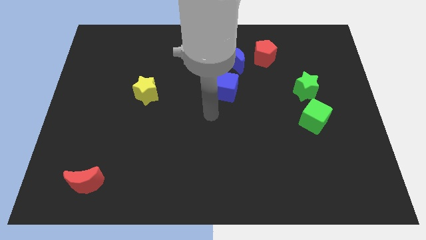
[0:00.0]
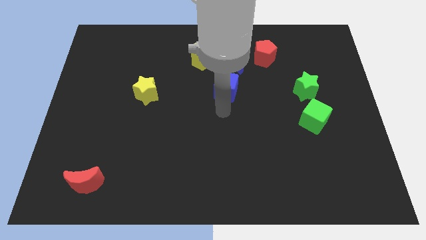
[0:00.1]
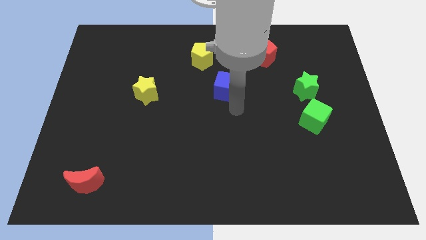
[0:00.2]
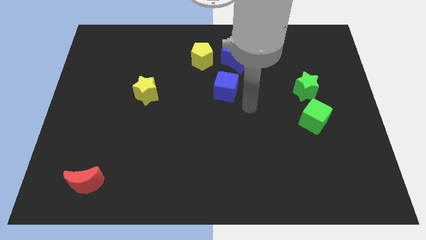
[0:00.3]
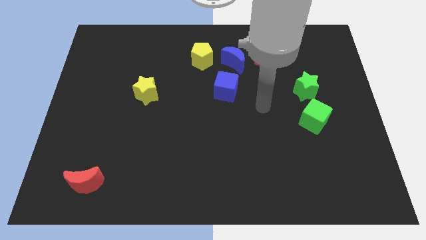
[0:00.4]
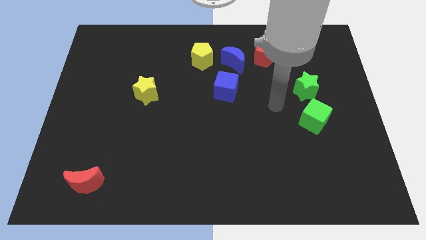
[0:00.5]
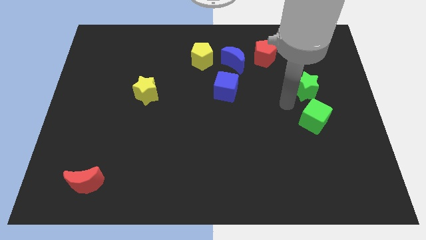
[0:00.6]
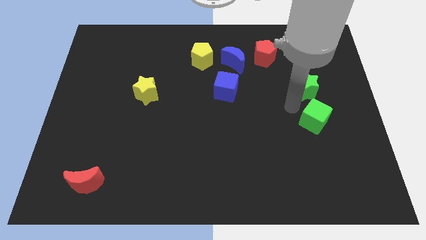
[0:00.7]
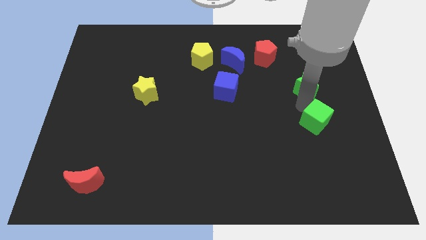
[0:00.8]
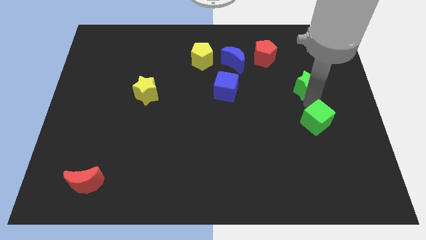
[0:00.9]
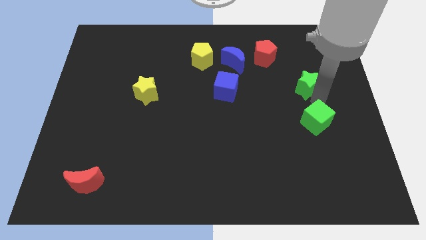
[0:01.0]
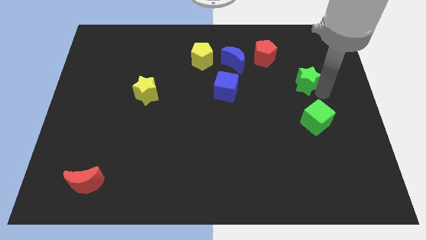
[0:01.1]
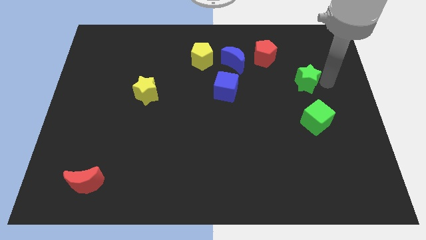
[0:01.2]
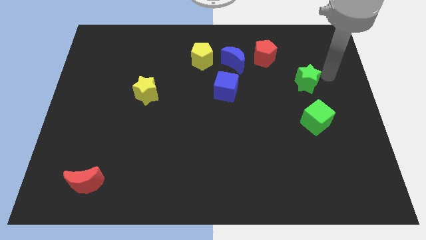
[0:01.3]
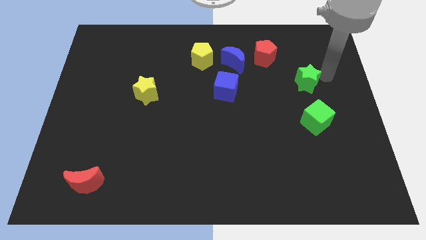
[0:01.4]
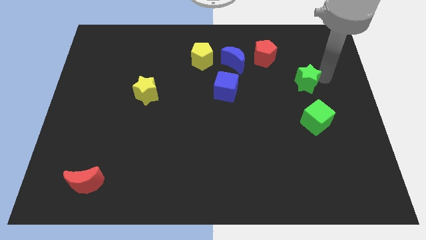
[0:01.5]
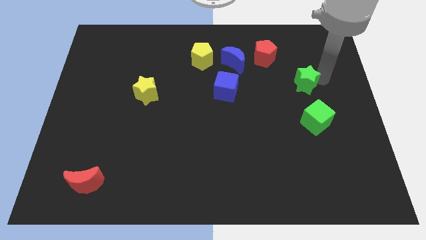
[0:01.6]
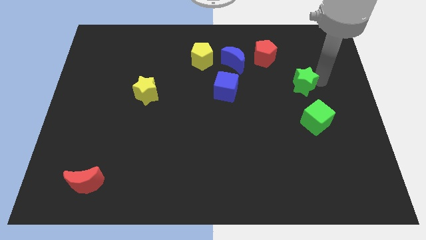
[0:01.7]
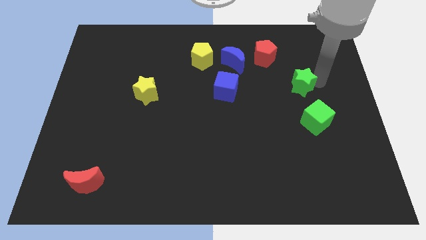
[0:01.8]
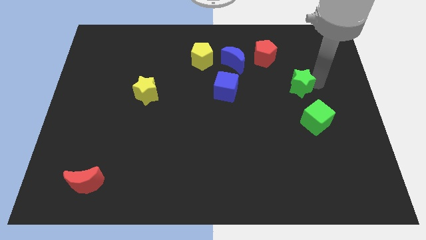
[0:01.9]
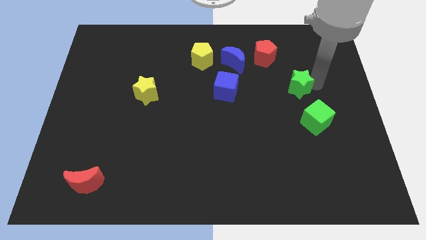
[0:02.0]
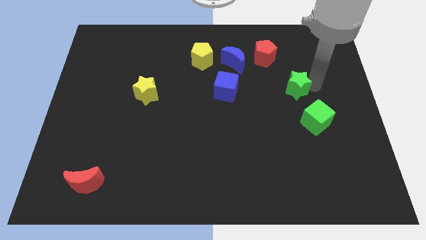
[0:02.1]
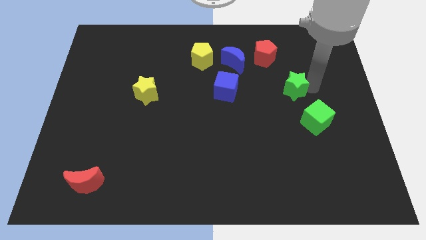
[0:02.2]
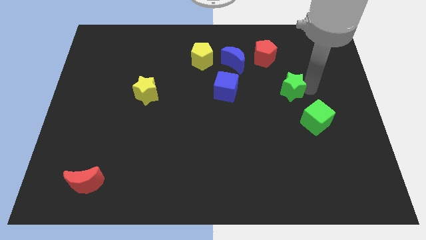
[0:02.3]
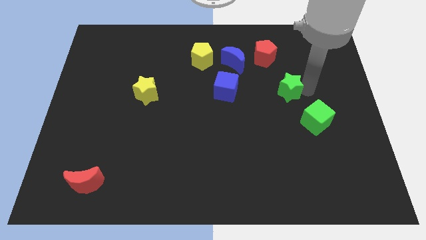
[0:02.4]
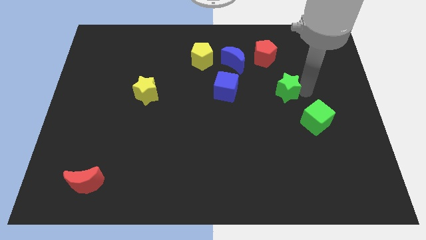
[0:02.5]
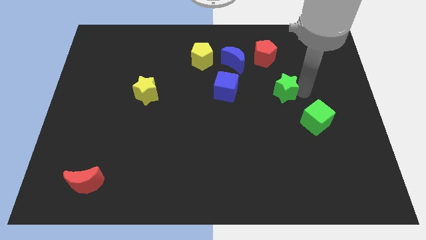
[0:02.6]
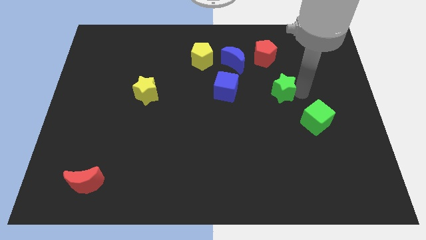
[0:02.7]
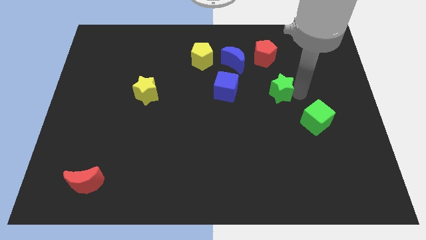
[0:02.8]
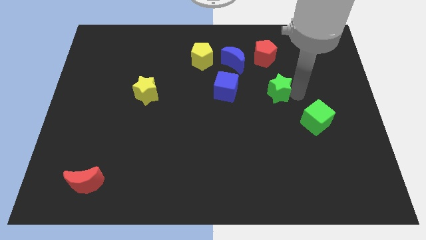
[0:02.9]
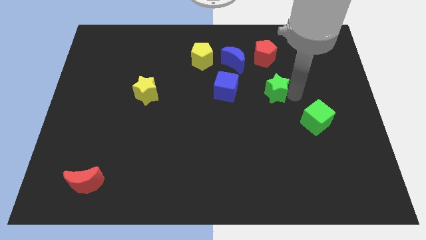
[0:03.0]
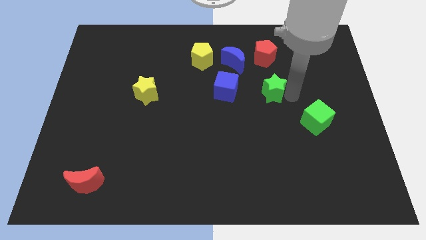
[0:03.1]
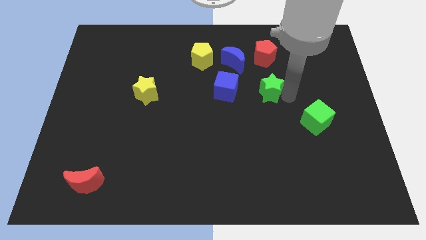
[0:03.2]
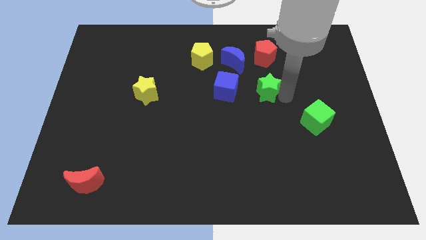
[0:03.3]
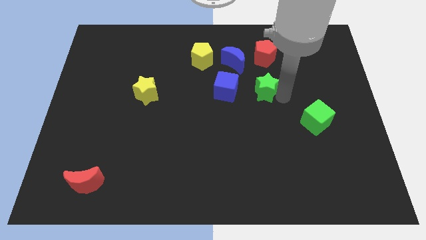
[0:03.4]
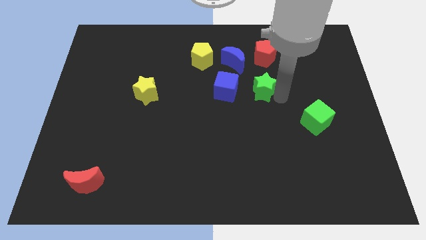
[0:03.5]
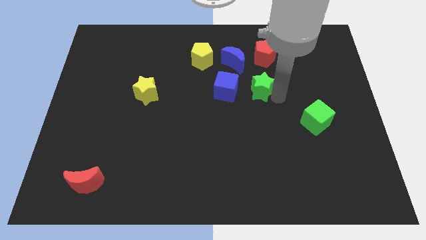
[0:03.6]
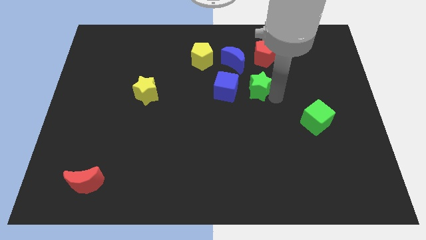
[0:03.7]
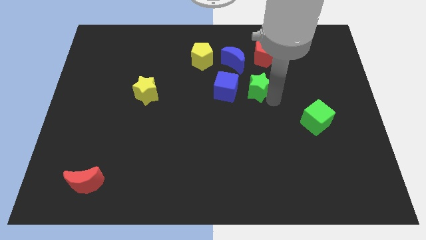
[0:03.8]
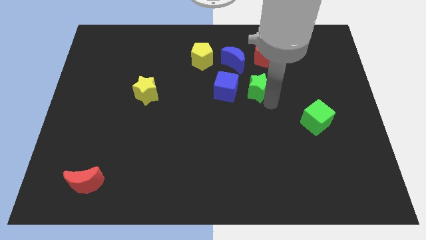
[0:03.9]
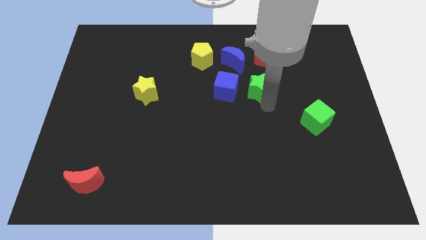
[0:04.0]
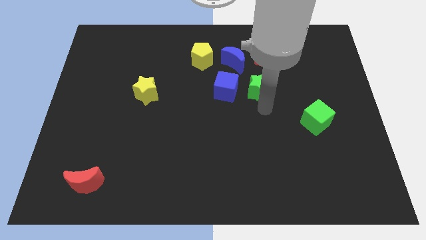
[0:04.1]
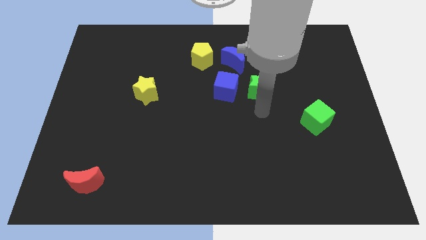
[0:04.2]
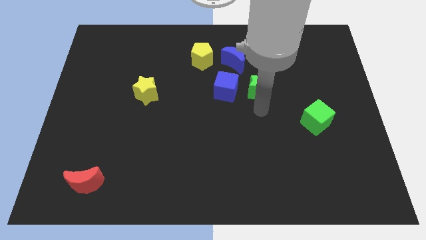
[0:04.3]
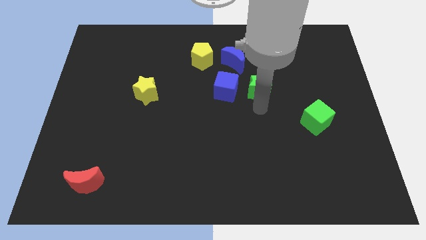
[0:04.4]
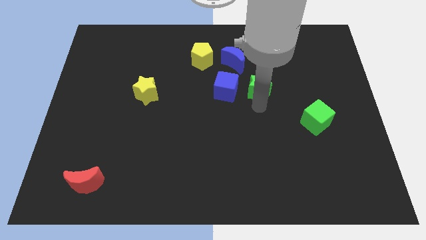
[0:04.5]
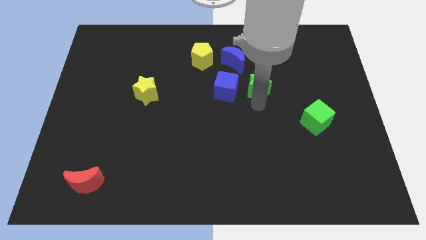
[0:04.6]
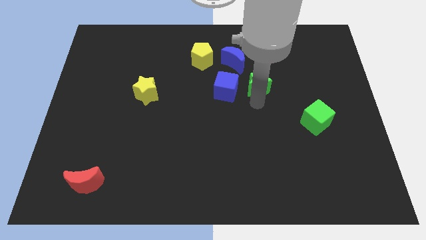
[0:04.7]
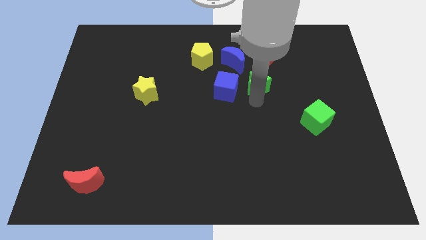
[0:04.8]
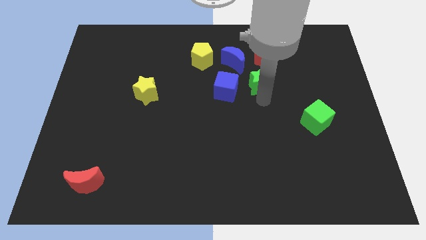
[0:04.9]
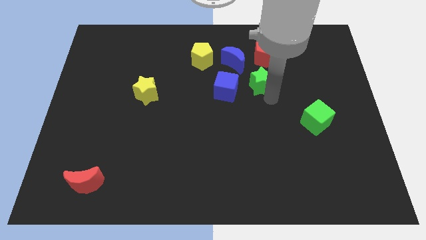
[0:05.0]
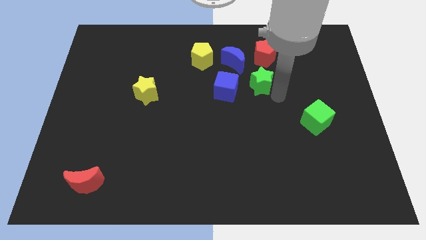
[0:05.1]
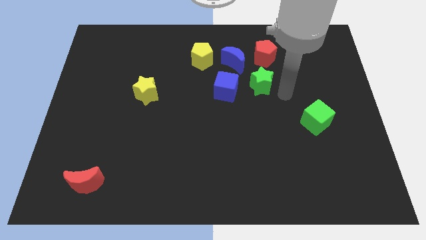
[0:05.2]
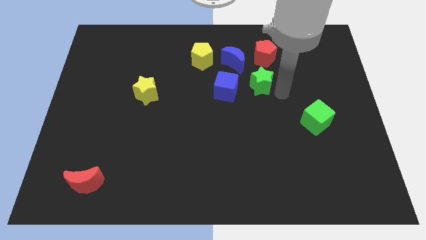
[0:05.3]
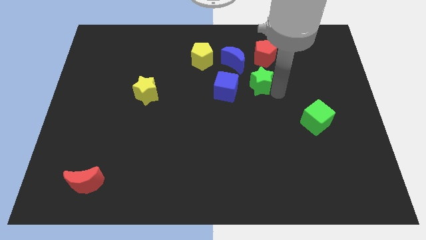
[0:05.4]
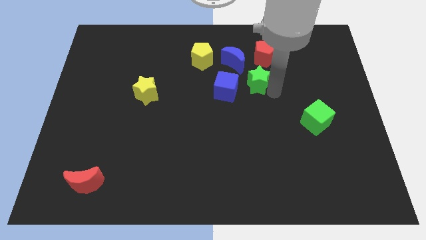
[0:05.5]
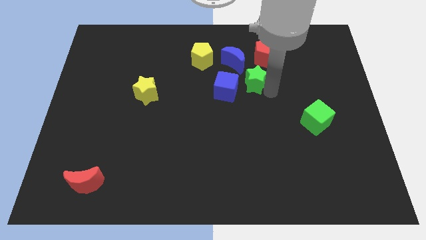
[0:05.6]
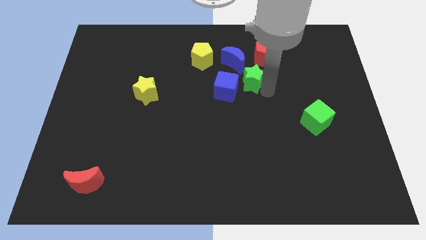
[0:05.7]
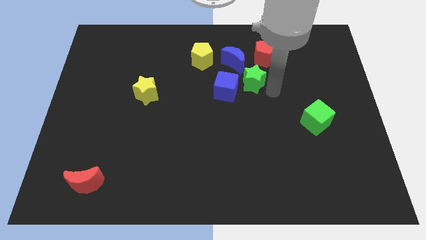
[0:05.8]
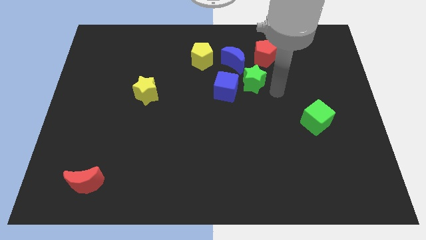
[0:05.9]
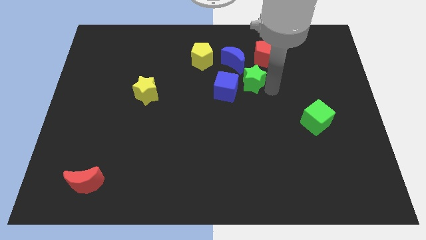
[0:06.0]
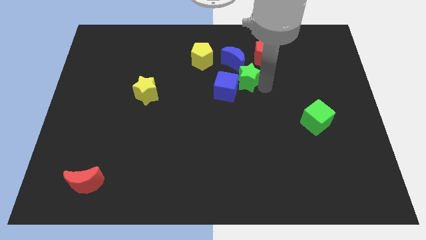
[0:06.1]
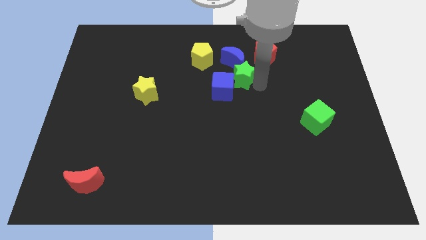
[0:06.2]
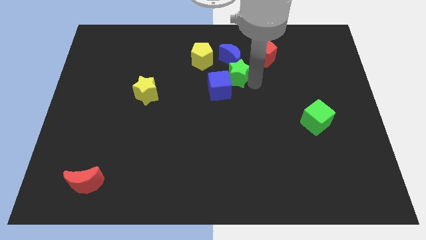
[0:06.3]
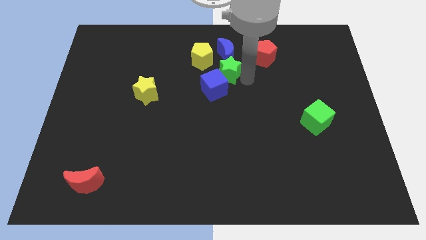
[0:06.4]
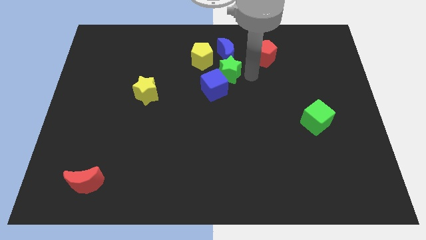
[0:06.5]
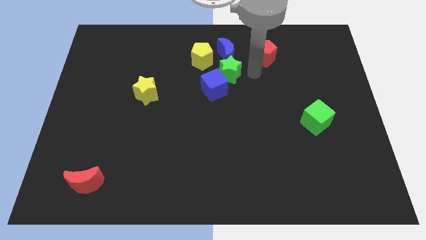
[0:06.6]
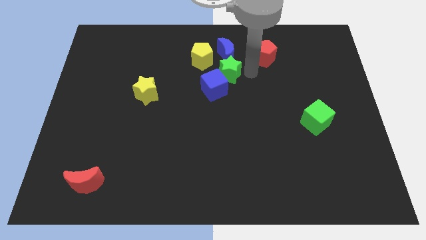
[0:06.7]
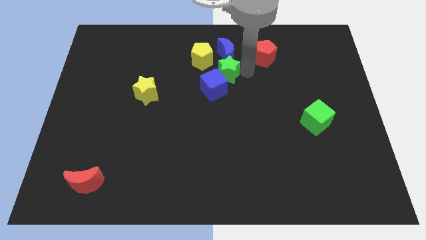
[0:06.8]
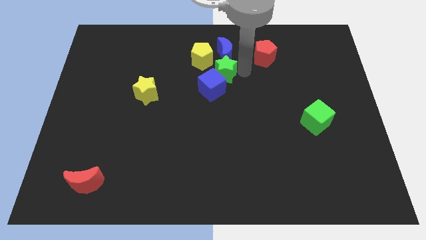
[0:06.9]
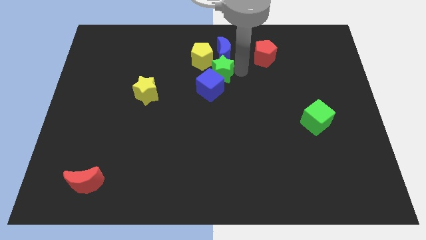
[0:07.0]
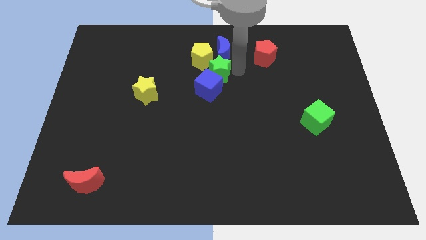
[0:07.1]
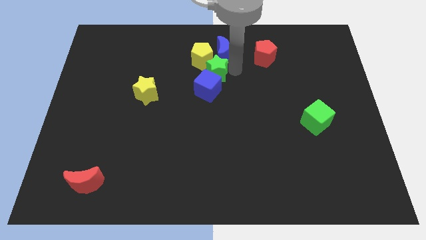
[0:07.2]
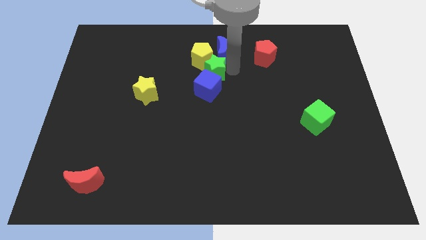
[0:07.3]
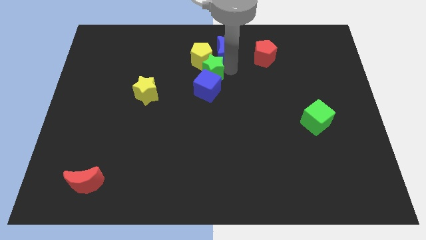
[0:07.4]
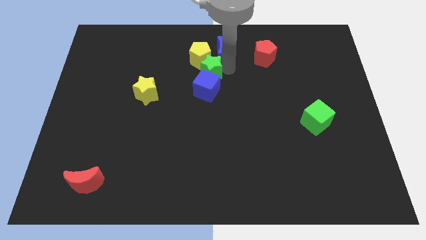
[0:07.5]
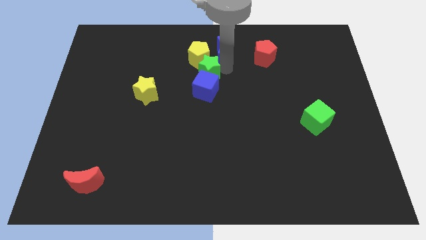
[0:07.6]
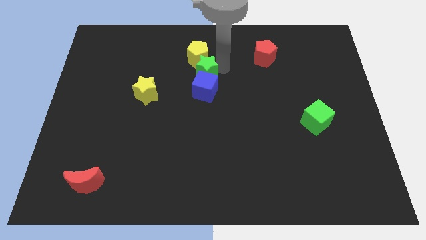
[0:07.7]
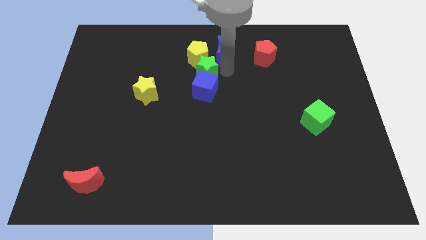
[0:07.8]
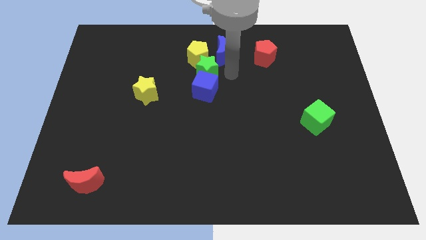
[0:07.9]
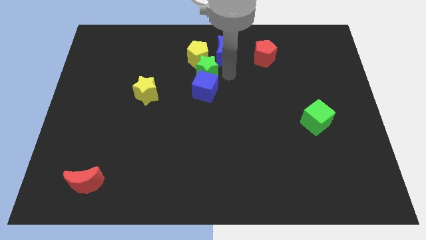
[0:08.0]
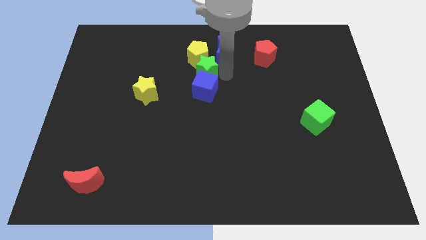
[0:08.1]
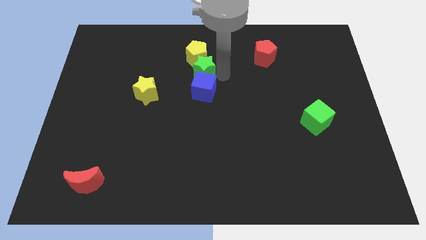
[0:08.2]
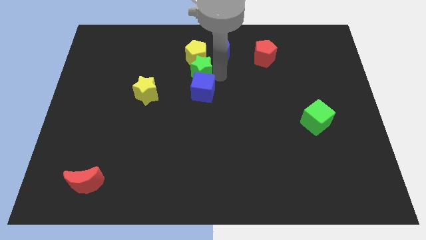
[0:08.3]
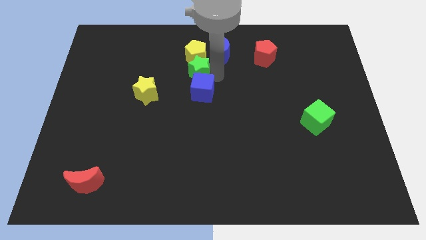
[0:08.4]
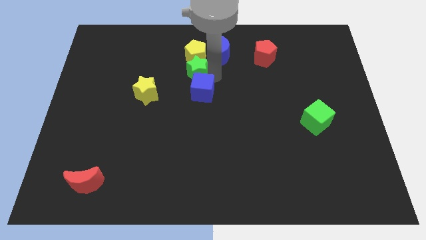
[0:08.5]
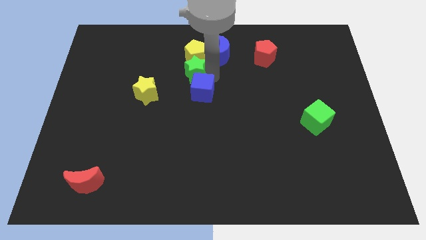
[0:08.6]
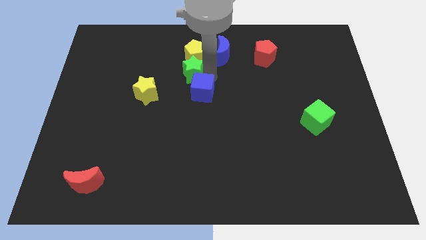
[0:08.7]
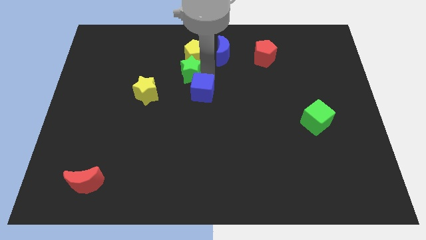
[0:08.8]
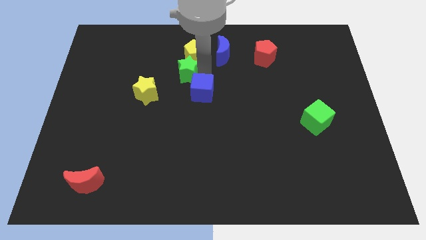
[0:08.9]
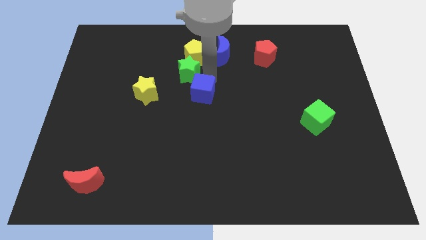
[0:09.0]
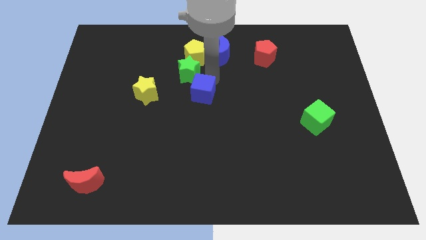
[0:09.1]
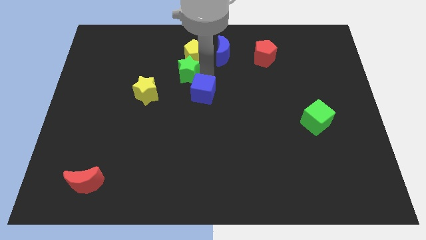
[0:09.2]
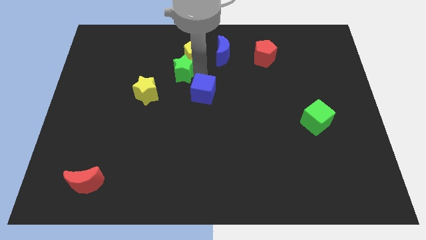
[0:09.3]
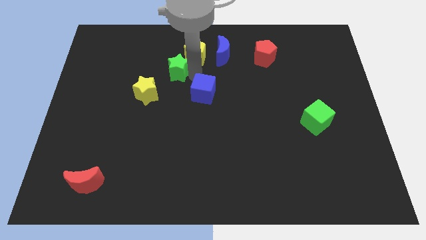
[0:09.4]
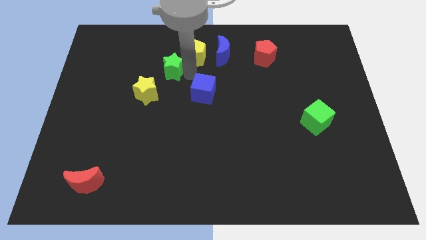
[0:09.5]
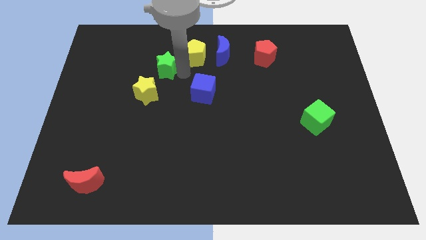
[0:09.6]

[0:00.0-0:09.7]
put the green star above the yellow star
